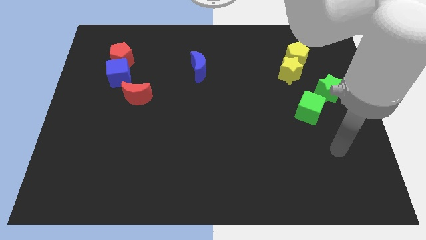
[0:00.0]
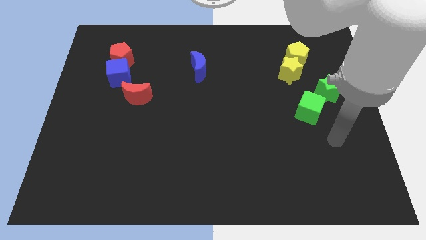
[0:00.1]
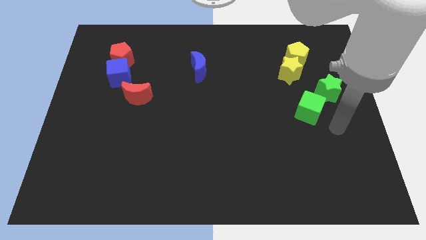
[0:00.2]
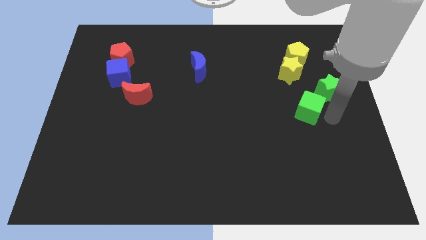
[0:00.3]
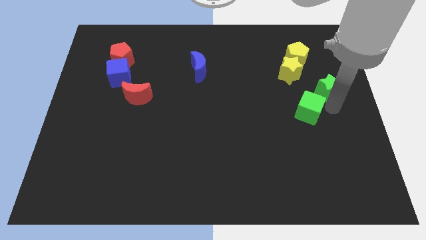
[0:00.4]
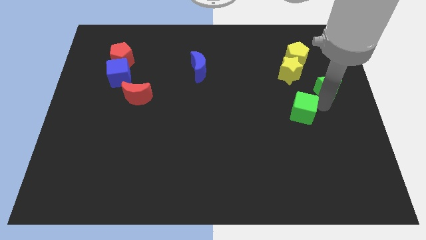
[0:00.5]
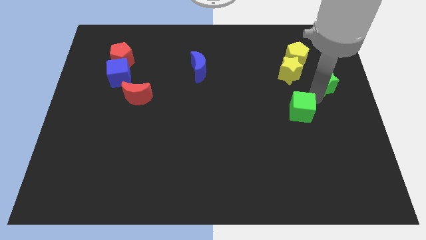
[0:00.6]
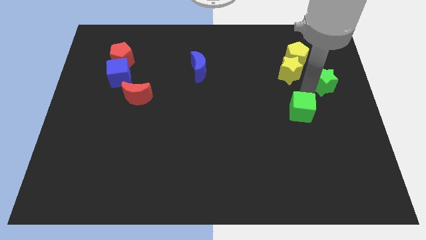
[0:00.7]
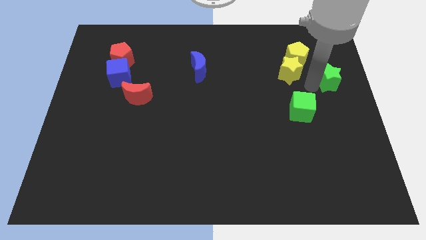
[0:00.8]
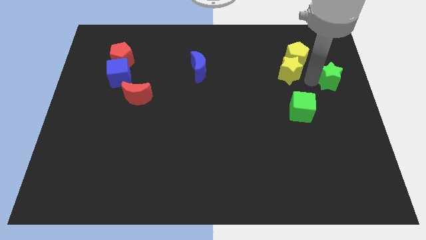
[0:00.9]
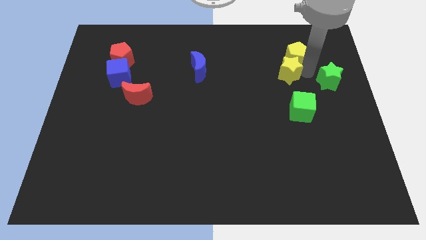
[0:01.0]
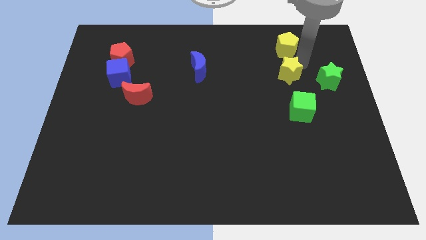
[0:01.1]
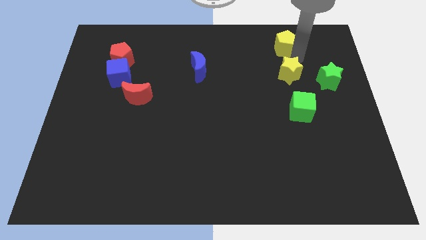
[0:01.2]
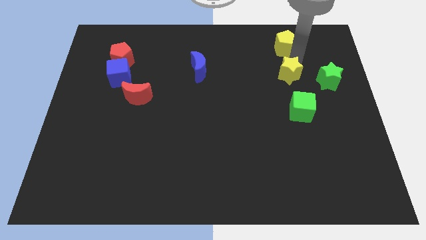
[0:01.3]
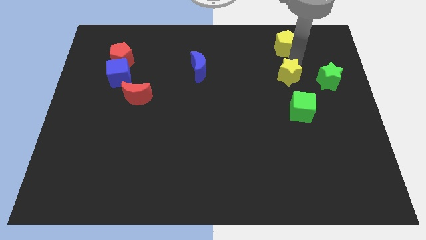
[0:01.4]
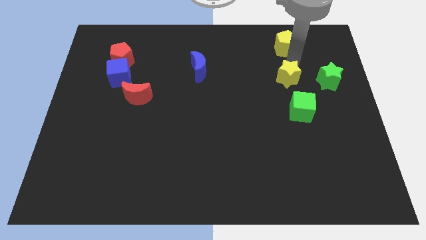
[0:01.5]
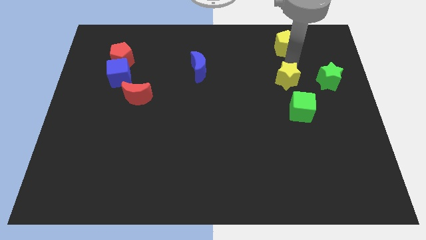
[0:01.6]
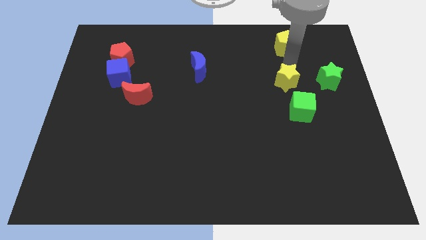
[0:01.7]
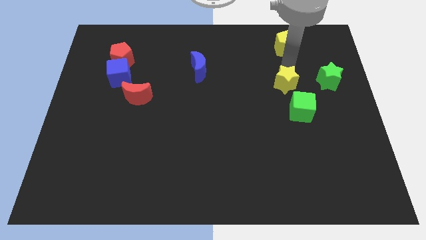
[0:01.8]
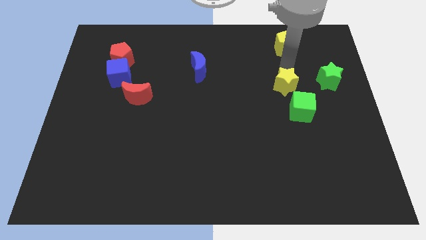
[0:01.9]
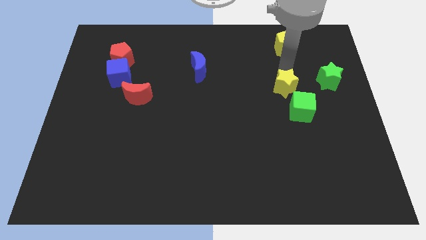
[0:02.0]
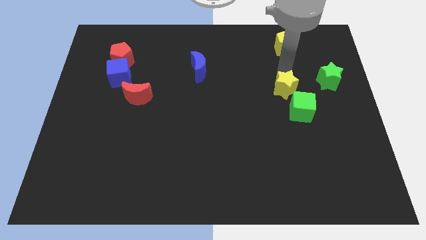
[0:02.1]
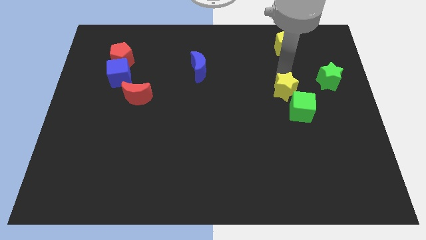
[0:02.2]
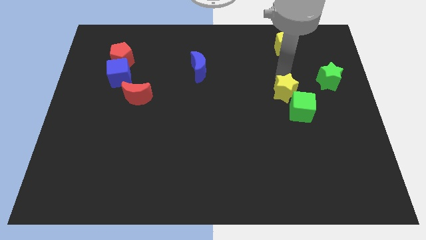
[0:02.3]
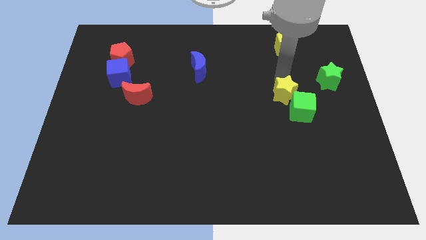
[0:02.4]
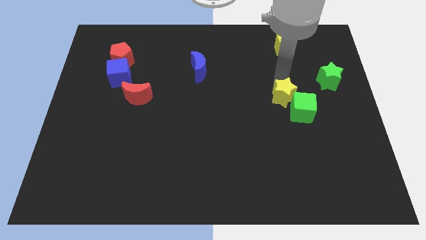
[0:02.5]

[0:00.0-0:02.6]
slide the yellow star downwards a bit

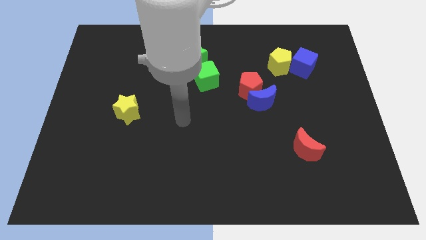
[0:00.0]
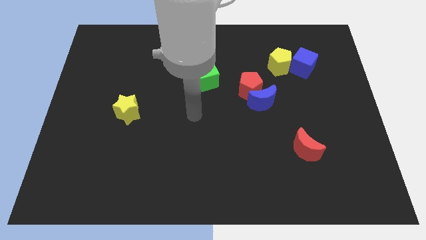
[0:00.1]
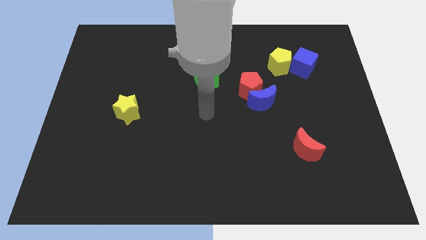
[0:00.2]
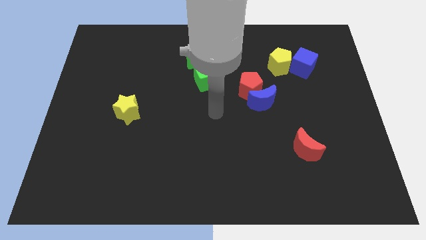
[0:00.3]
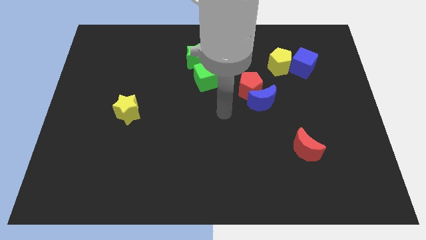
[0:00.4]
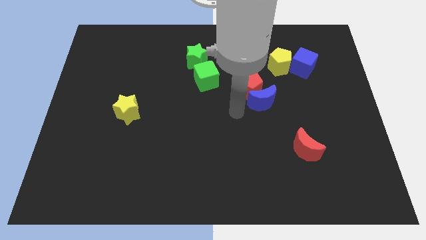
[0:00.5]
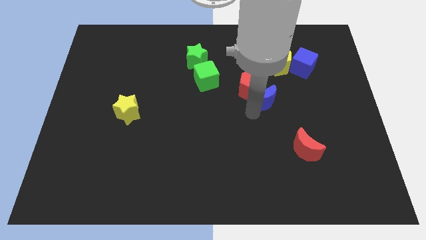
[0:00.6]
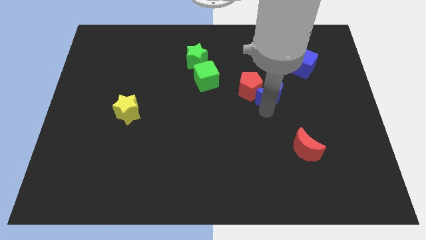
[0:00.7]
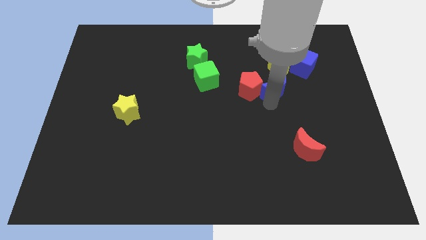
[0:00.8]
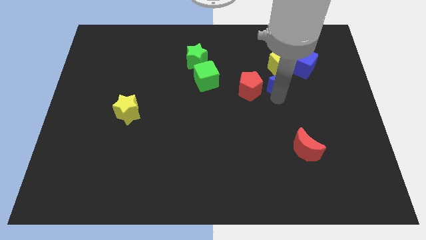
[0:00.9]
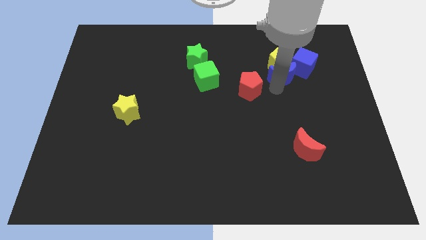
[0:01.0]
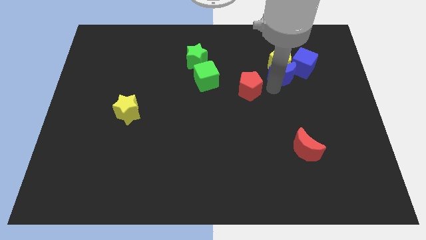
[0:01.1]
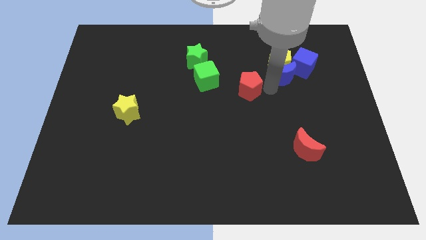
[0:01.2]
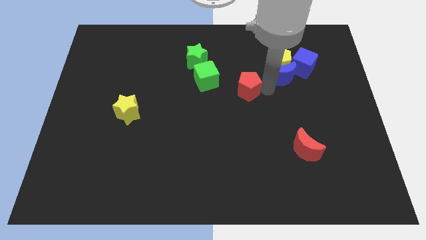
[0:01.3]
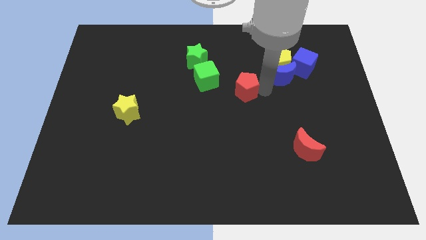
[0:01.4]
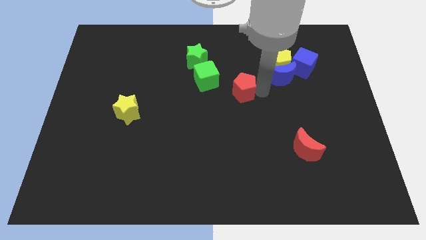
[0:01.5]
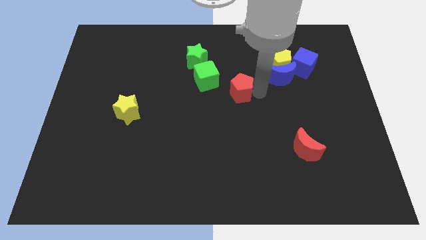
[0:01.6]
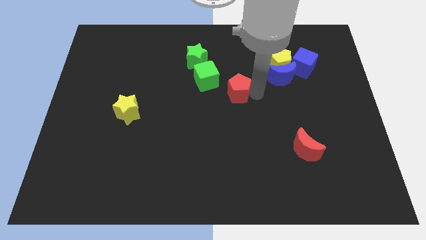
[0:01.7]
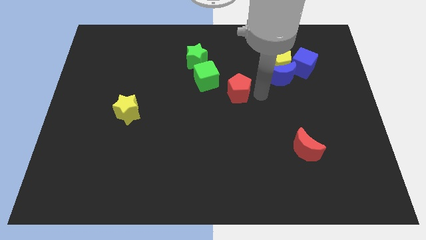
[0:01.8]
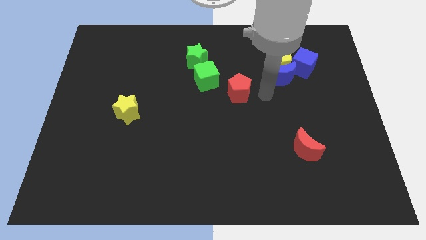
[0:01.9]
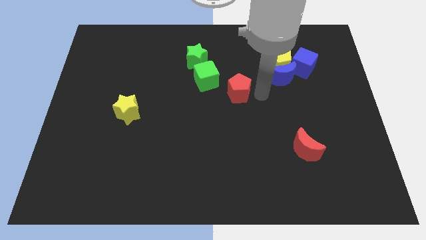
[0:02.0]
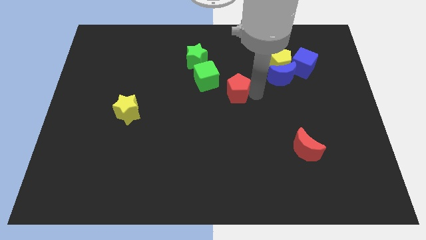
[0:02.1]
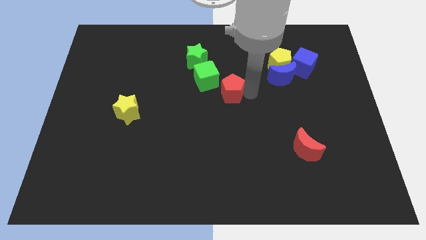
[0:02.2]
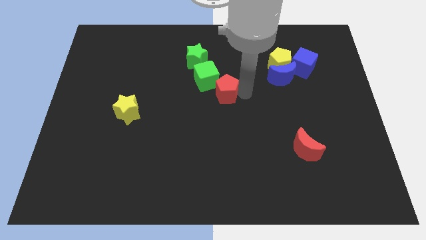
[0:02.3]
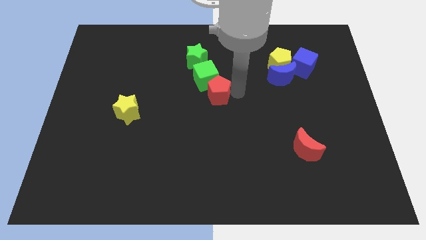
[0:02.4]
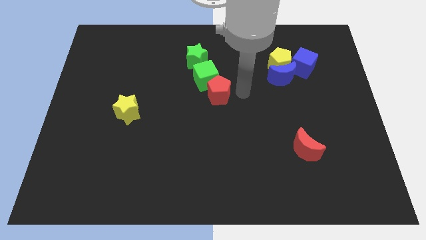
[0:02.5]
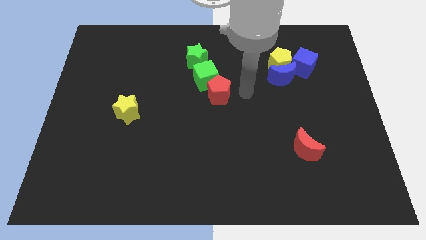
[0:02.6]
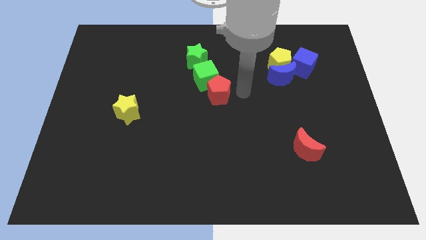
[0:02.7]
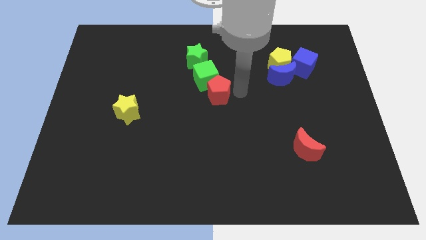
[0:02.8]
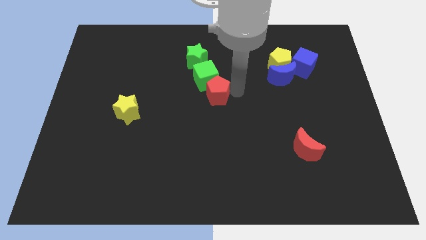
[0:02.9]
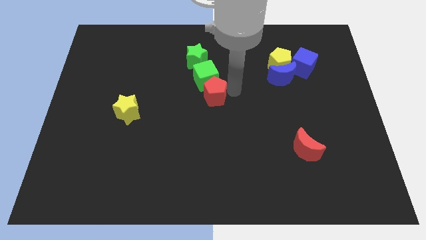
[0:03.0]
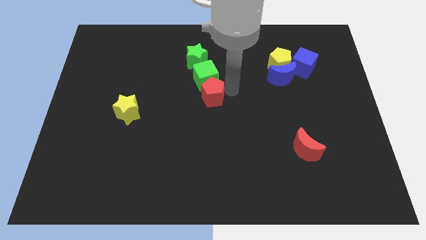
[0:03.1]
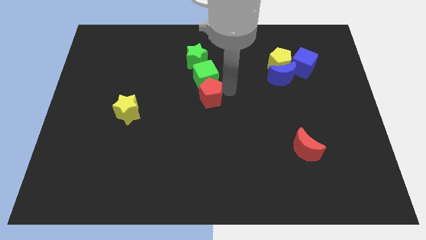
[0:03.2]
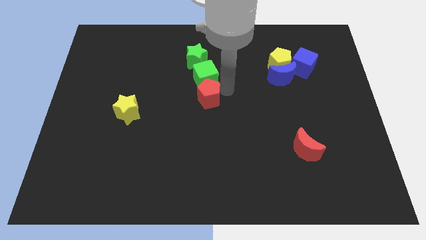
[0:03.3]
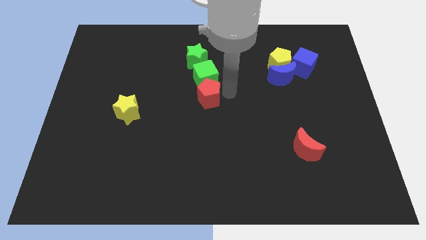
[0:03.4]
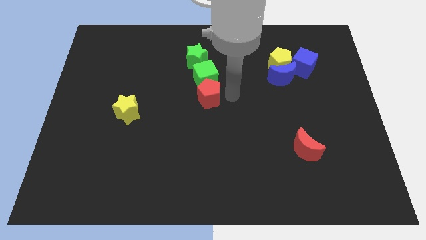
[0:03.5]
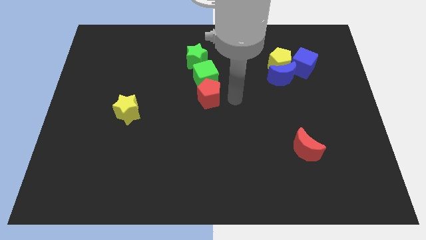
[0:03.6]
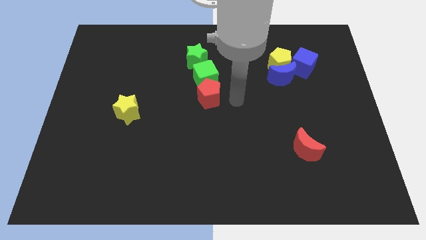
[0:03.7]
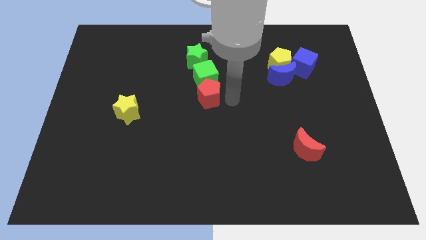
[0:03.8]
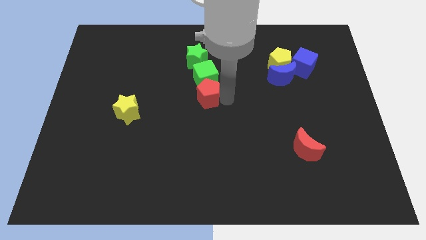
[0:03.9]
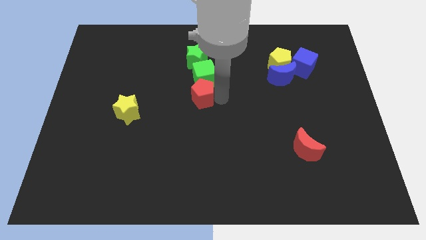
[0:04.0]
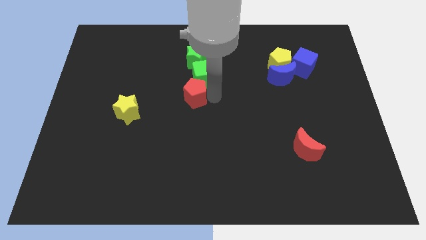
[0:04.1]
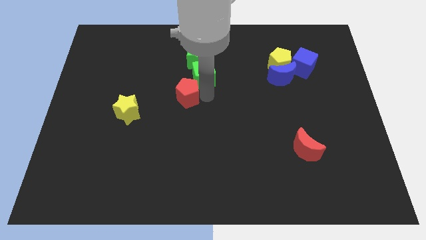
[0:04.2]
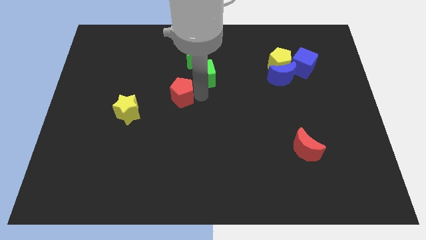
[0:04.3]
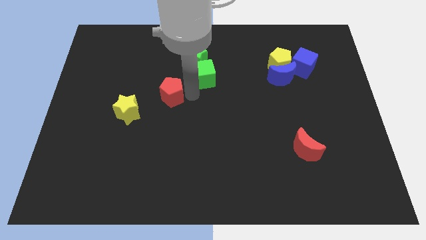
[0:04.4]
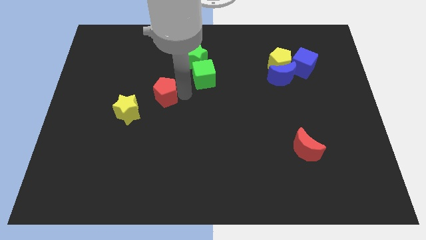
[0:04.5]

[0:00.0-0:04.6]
push the red pentagon to the left

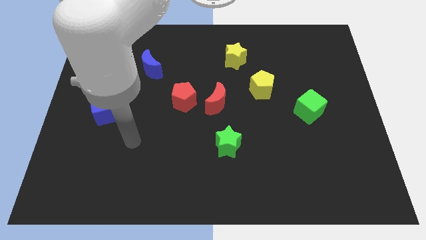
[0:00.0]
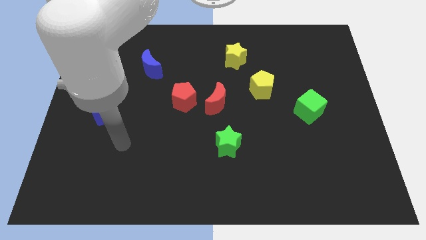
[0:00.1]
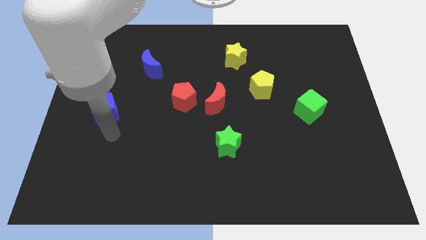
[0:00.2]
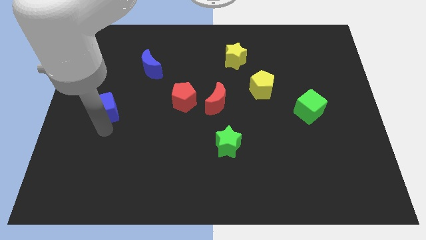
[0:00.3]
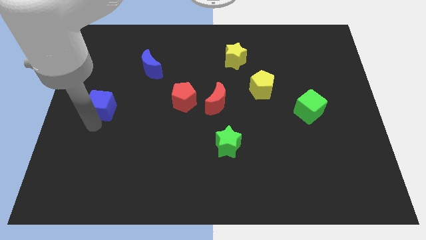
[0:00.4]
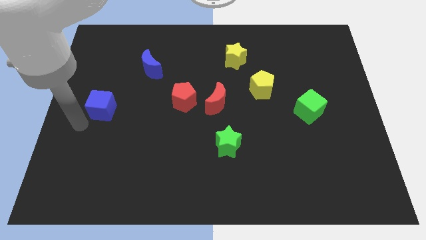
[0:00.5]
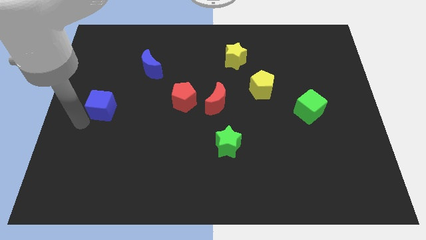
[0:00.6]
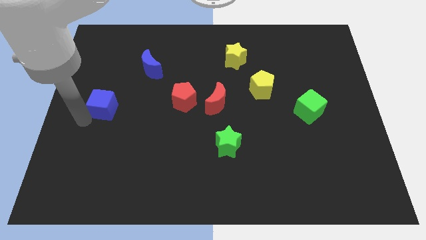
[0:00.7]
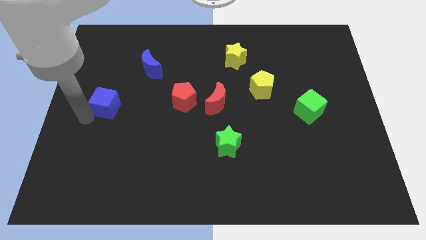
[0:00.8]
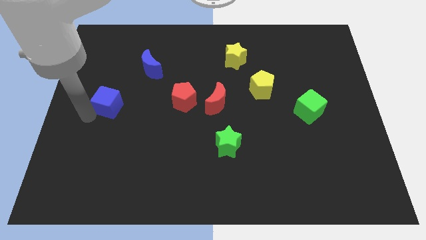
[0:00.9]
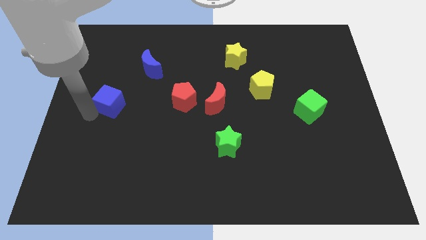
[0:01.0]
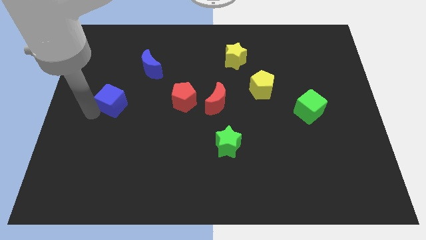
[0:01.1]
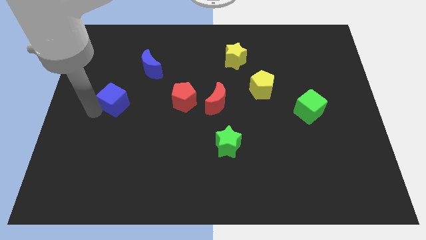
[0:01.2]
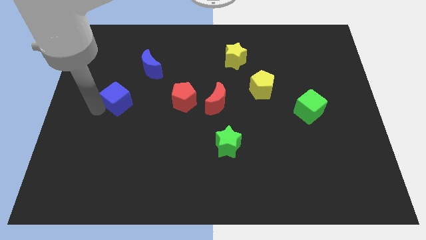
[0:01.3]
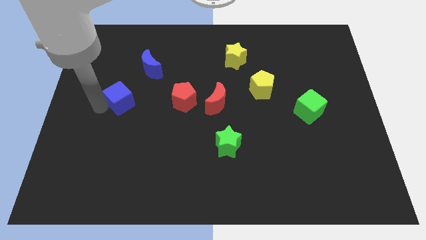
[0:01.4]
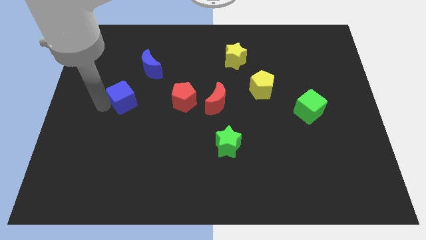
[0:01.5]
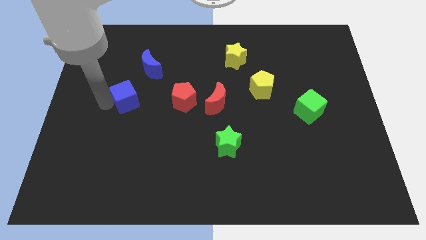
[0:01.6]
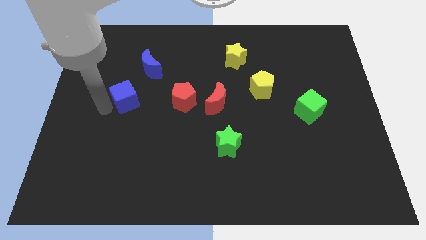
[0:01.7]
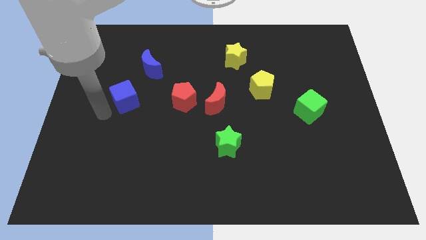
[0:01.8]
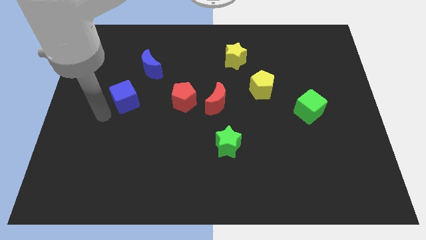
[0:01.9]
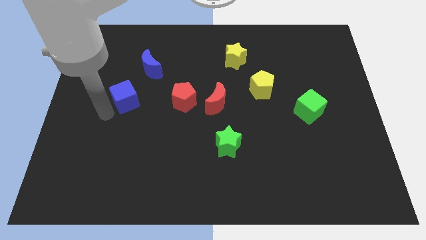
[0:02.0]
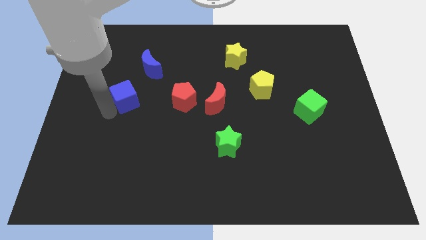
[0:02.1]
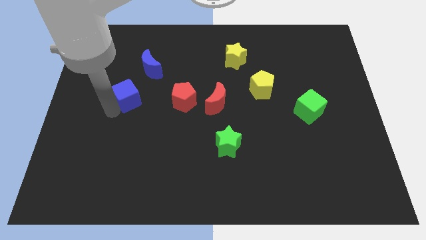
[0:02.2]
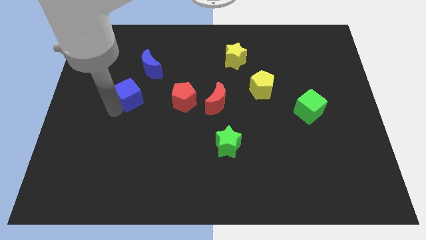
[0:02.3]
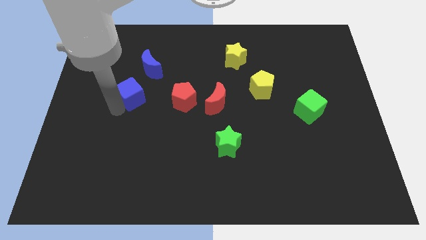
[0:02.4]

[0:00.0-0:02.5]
slightly push the blue cube diagonally upwards and right
